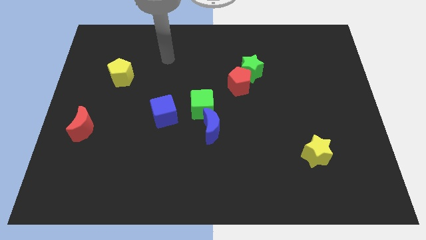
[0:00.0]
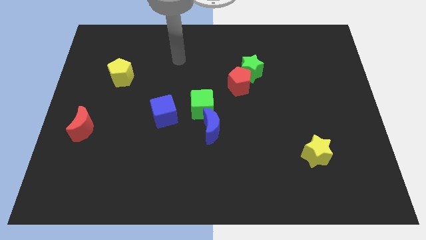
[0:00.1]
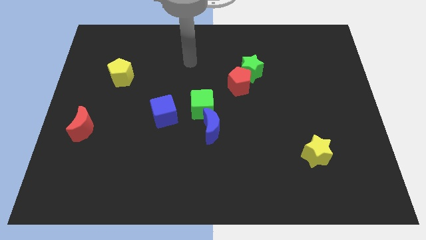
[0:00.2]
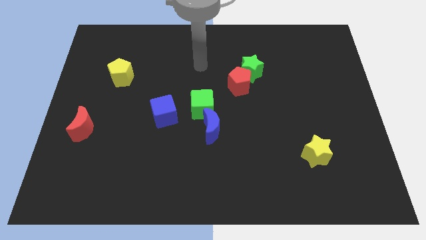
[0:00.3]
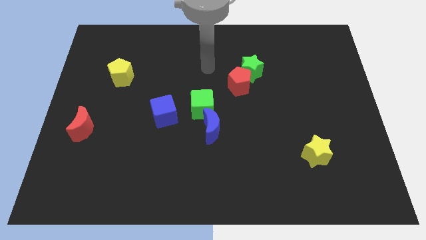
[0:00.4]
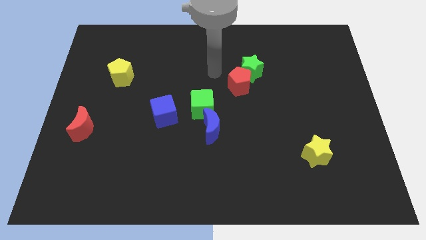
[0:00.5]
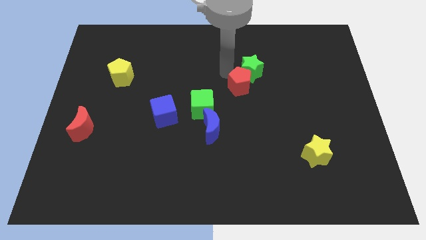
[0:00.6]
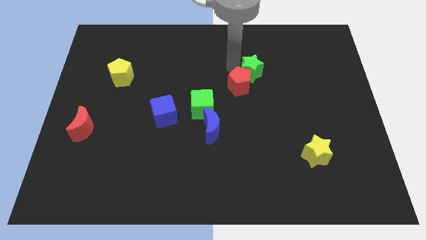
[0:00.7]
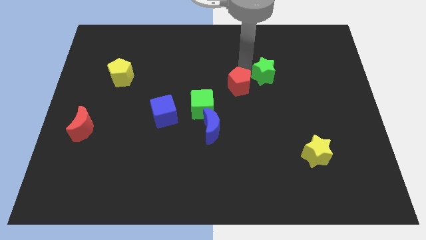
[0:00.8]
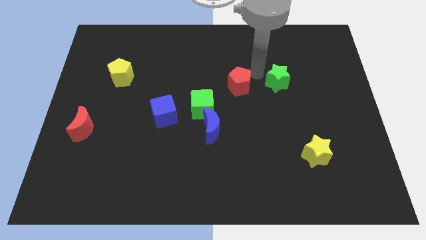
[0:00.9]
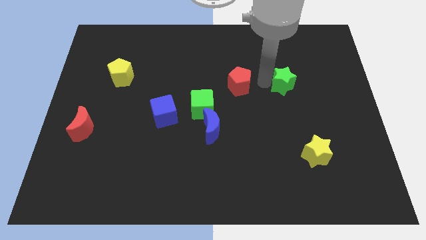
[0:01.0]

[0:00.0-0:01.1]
move the red pentagon away from the green star

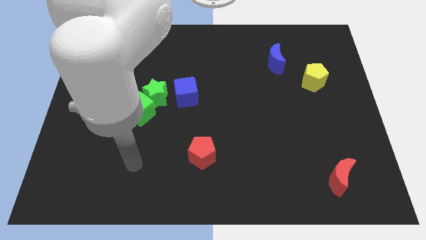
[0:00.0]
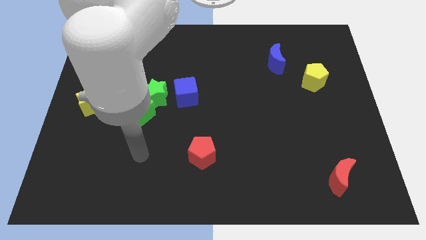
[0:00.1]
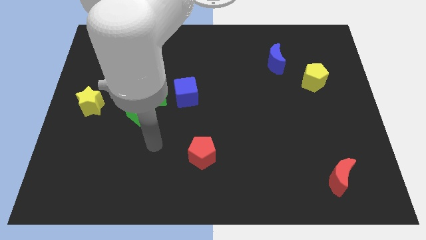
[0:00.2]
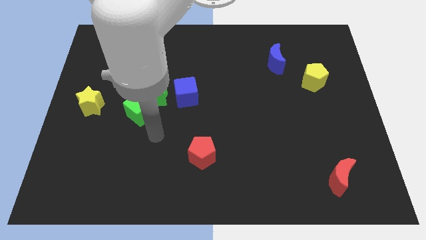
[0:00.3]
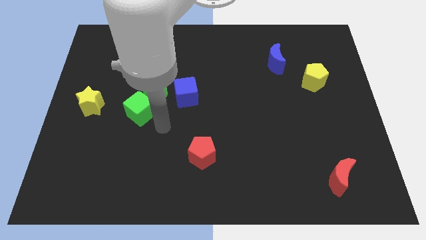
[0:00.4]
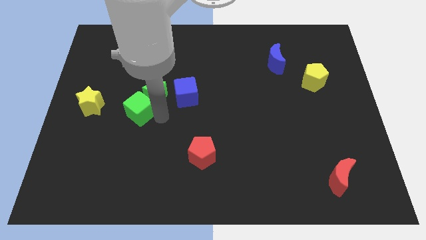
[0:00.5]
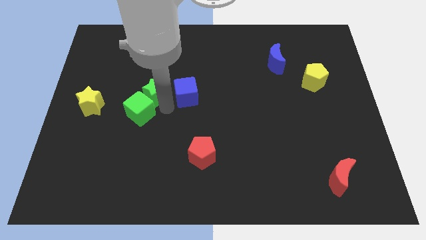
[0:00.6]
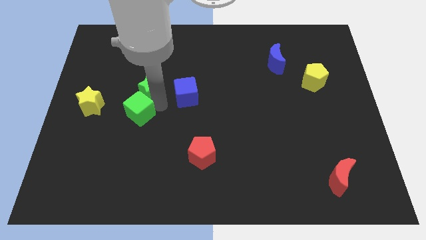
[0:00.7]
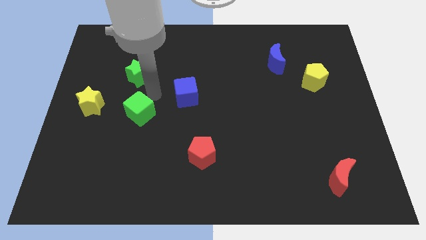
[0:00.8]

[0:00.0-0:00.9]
separate the green cube from the green star

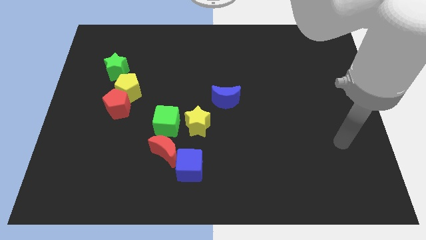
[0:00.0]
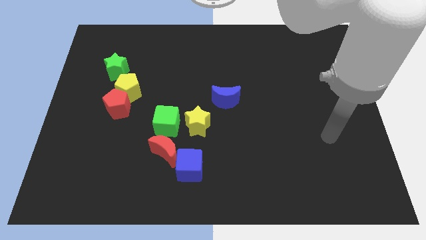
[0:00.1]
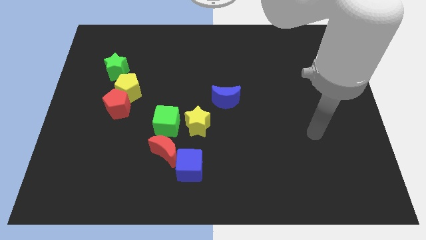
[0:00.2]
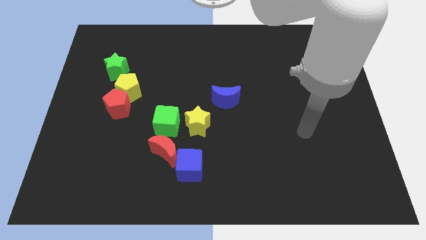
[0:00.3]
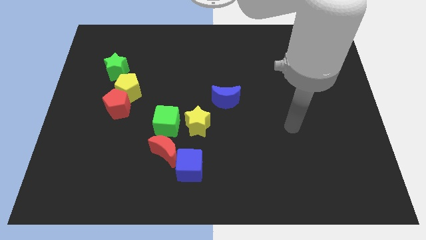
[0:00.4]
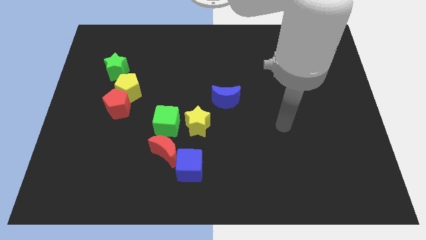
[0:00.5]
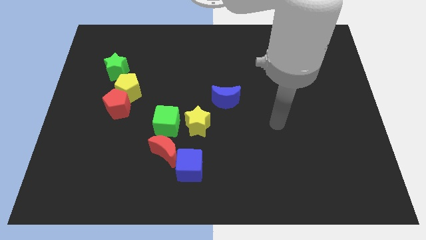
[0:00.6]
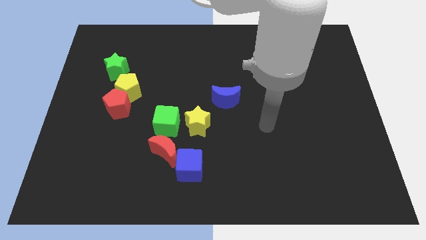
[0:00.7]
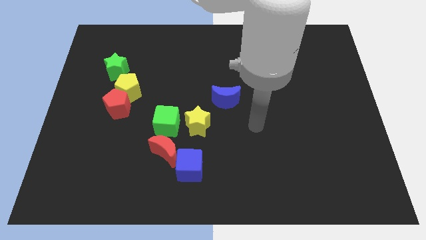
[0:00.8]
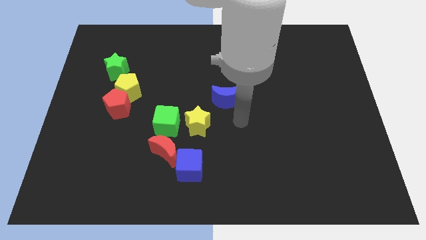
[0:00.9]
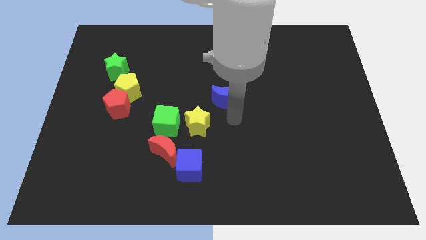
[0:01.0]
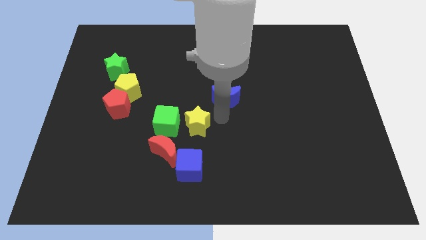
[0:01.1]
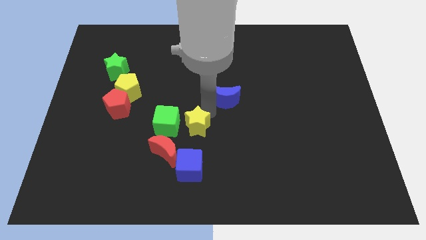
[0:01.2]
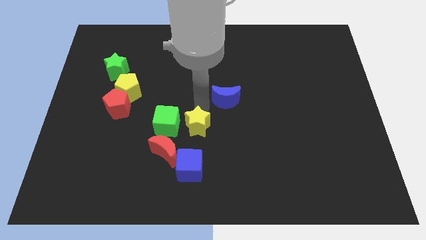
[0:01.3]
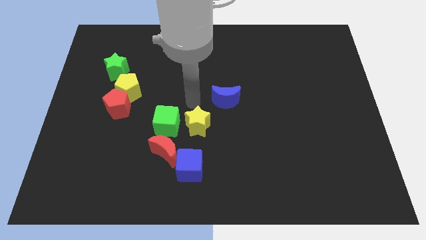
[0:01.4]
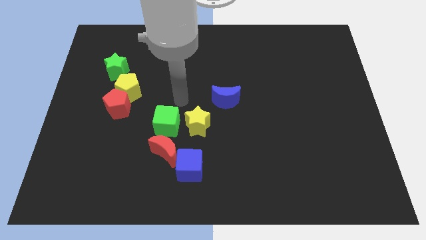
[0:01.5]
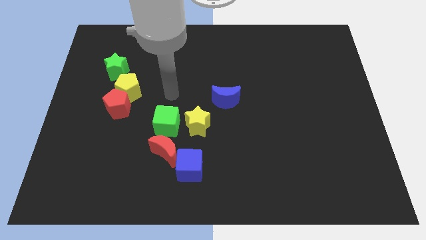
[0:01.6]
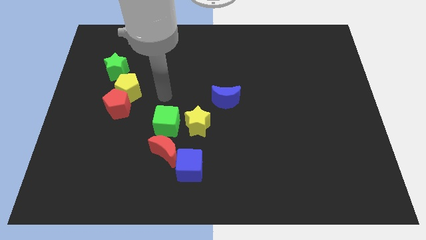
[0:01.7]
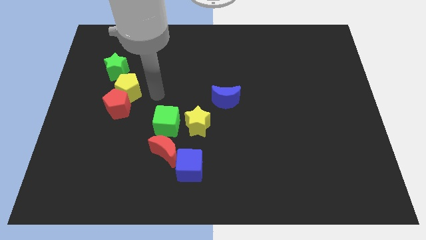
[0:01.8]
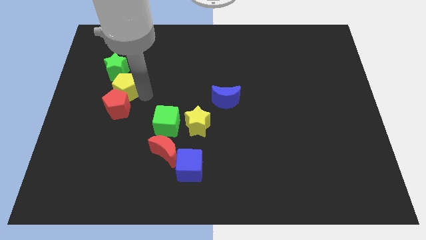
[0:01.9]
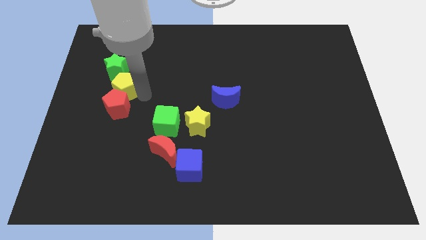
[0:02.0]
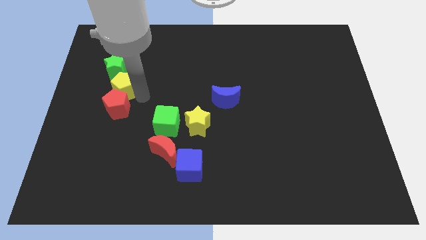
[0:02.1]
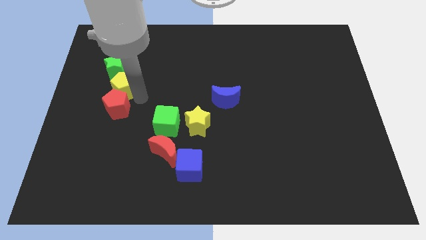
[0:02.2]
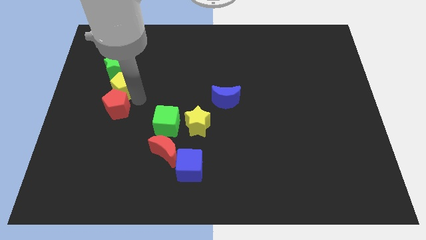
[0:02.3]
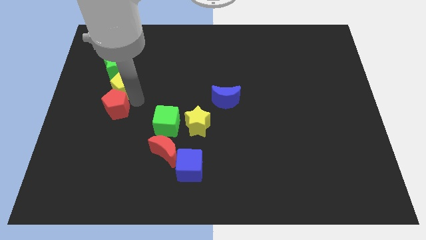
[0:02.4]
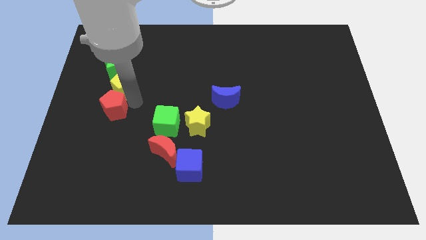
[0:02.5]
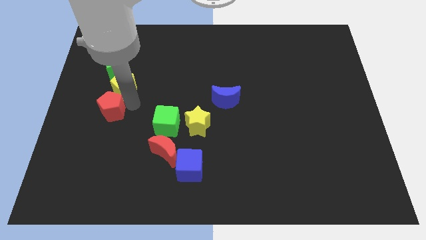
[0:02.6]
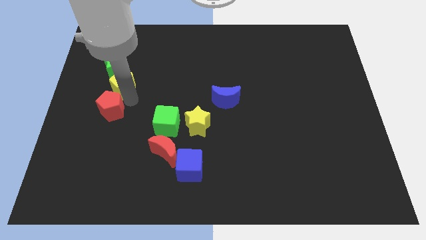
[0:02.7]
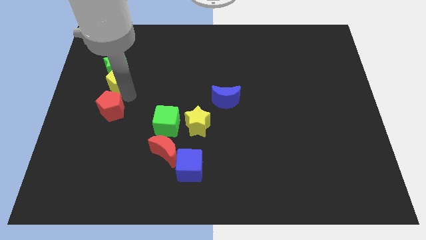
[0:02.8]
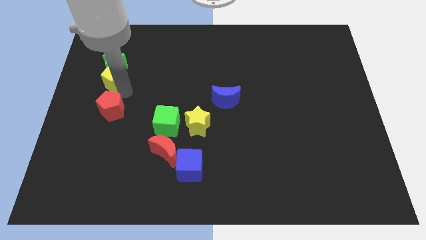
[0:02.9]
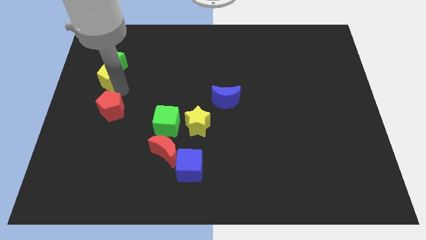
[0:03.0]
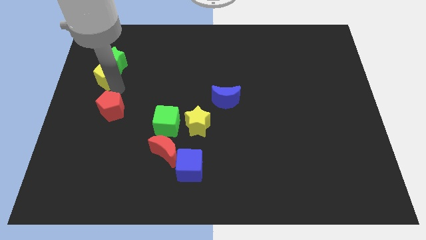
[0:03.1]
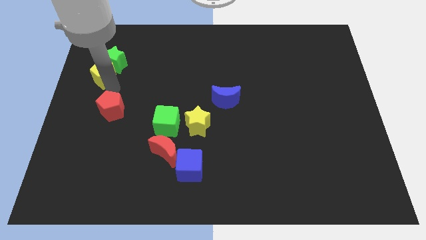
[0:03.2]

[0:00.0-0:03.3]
separate the red pentagon from the yellow pentagon

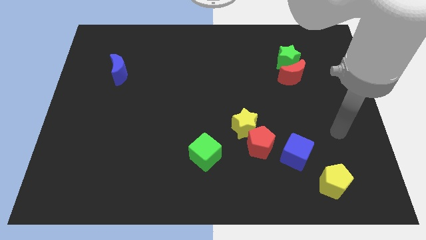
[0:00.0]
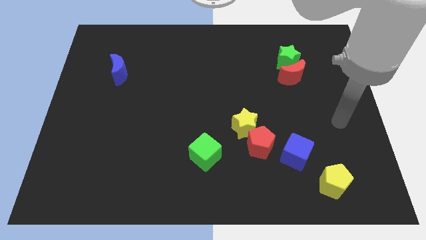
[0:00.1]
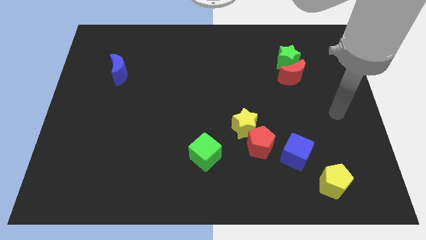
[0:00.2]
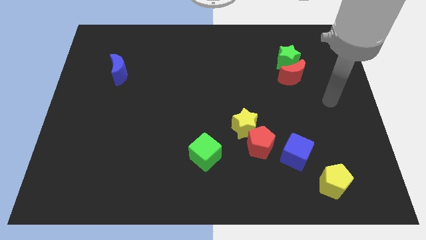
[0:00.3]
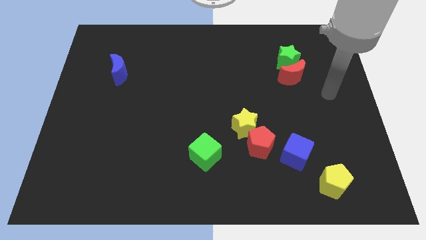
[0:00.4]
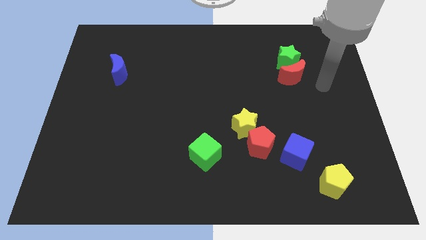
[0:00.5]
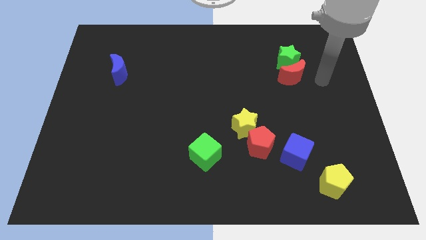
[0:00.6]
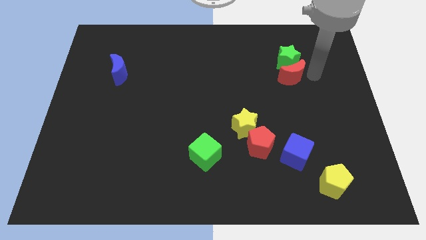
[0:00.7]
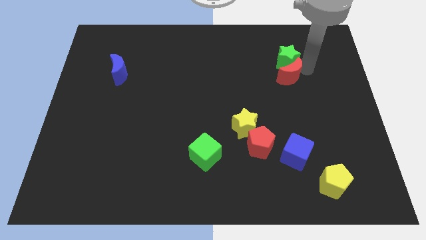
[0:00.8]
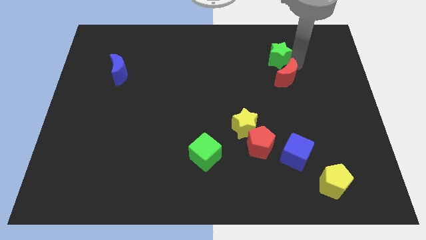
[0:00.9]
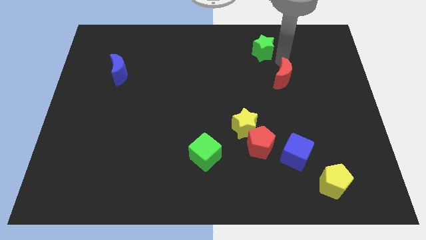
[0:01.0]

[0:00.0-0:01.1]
pull the red moon apart from the green star

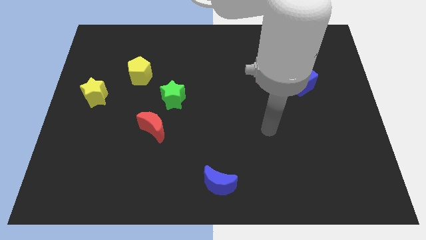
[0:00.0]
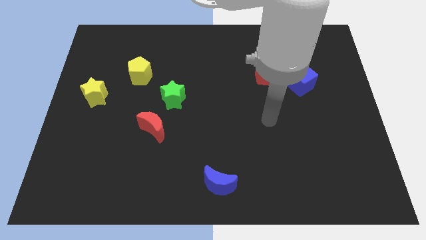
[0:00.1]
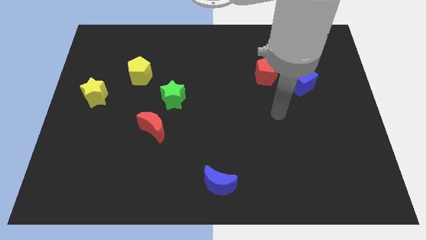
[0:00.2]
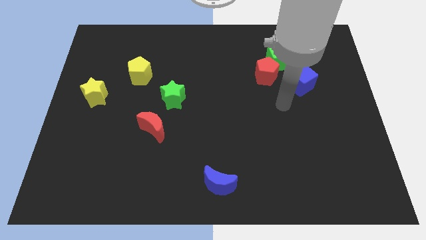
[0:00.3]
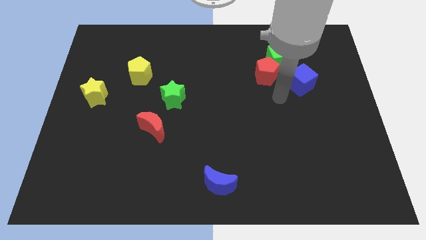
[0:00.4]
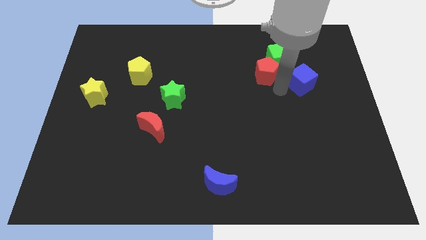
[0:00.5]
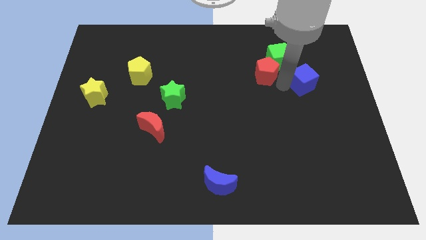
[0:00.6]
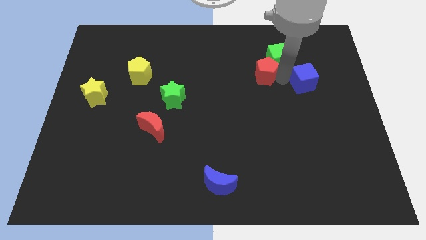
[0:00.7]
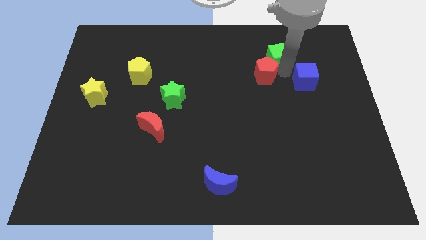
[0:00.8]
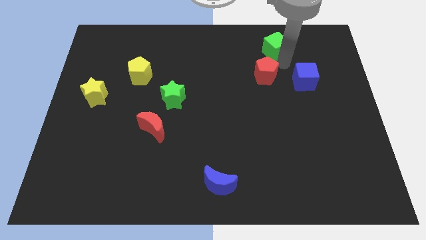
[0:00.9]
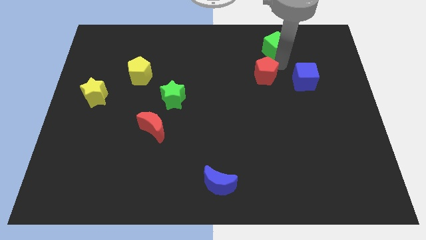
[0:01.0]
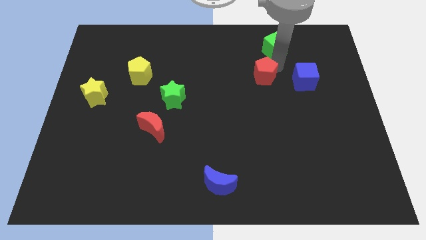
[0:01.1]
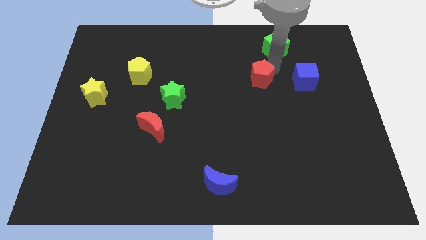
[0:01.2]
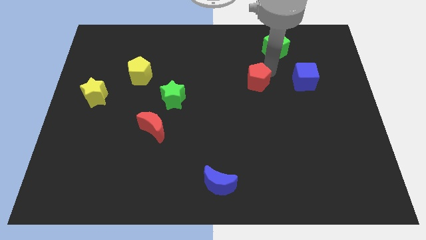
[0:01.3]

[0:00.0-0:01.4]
separate the red pentagon from the green cube and blue cube

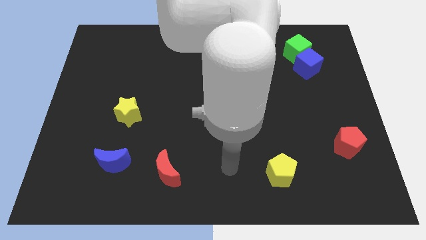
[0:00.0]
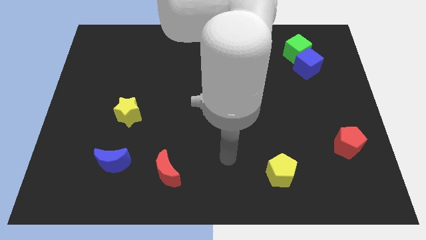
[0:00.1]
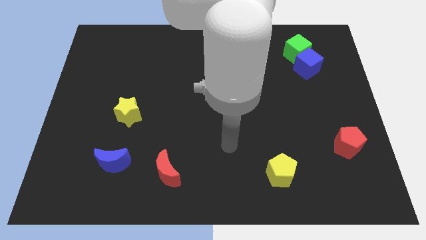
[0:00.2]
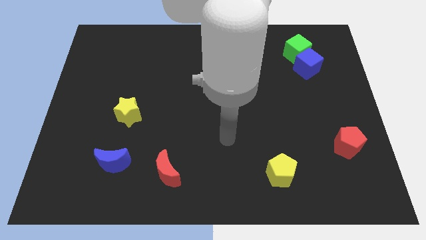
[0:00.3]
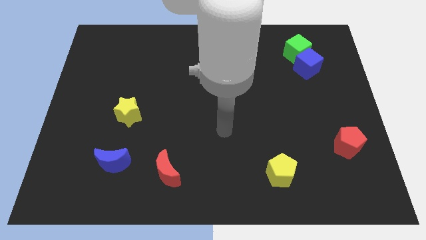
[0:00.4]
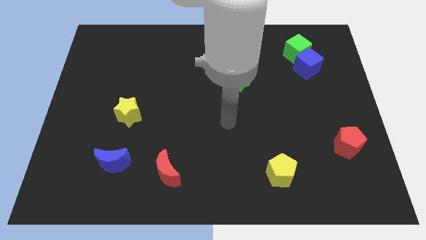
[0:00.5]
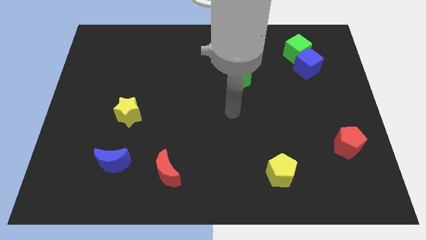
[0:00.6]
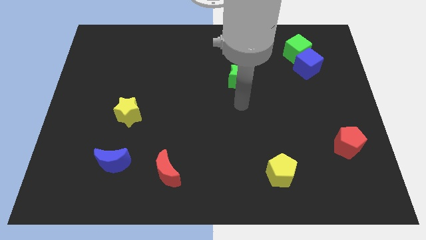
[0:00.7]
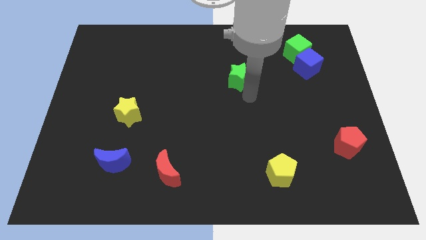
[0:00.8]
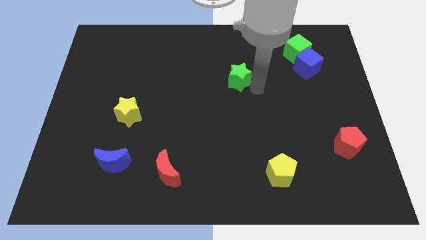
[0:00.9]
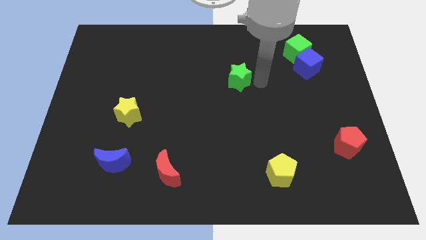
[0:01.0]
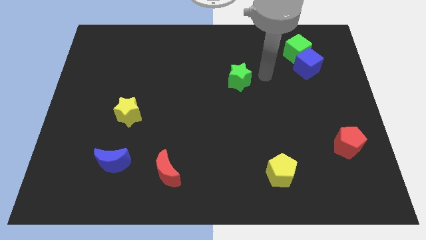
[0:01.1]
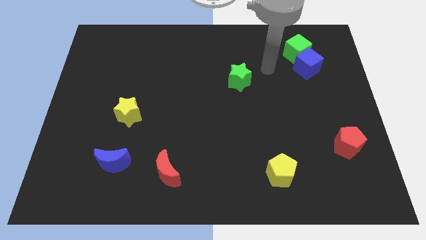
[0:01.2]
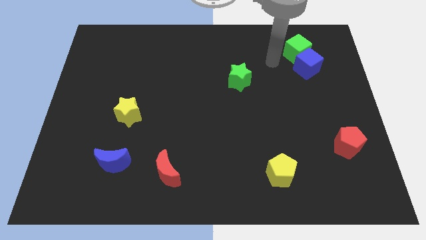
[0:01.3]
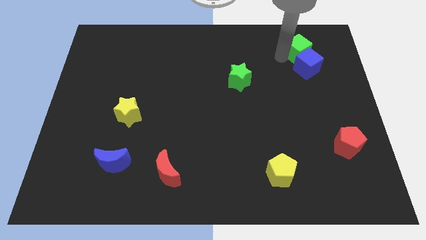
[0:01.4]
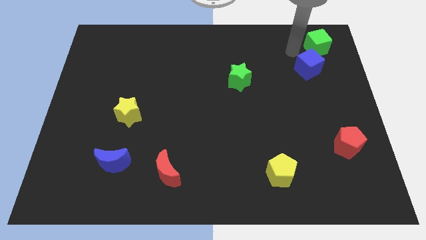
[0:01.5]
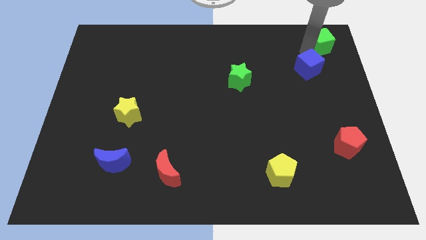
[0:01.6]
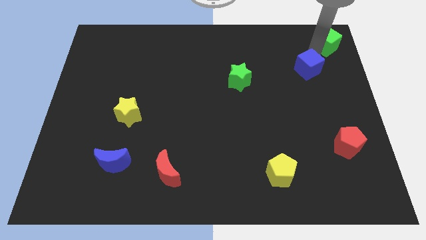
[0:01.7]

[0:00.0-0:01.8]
separate the blue cube from the green cube
